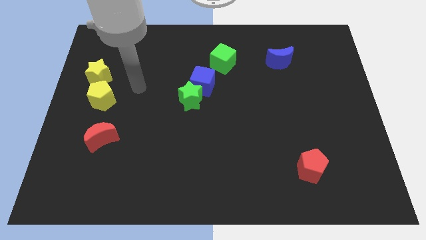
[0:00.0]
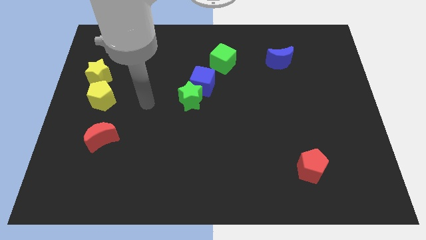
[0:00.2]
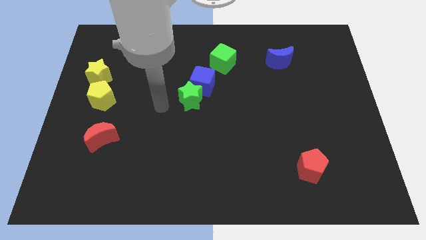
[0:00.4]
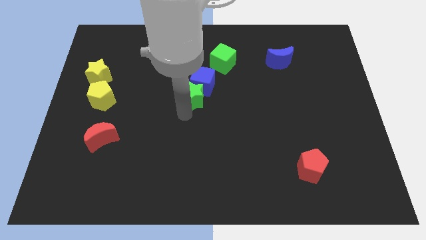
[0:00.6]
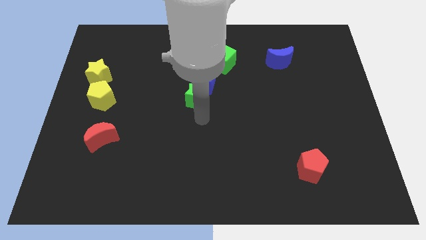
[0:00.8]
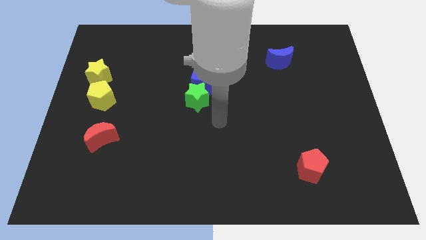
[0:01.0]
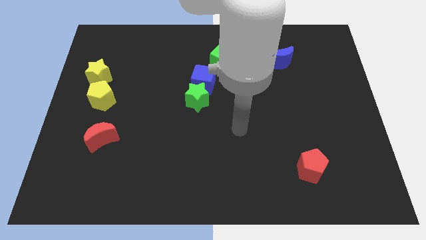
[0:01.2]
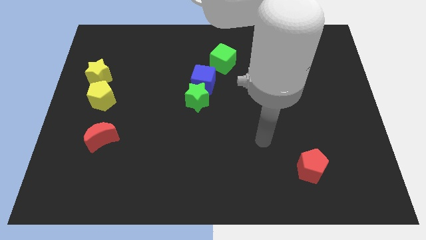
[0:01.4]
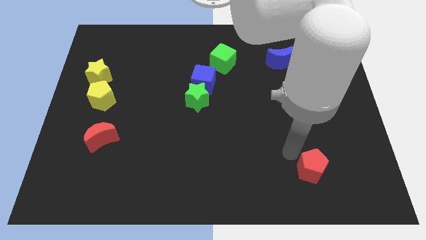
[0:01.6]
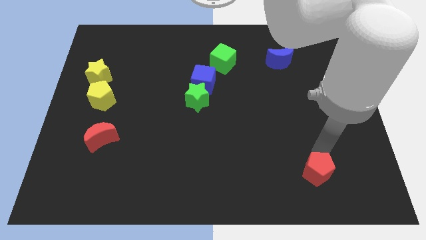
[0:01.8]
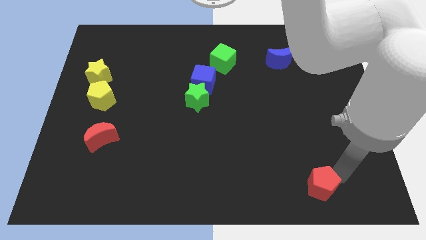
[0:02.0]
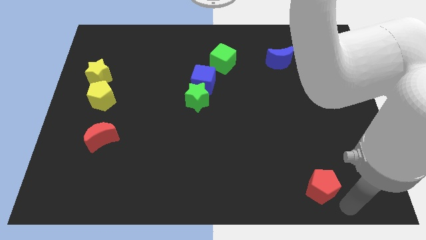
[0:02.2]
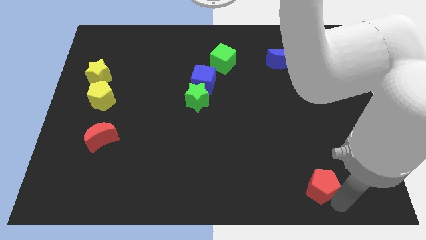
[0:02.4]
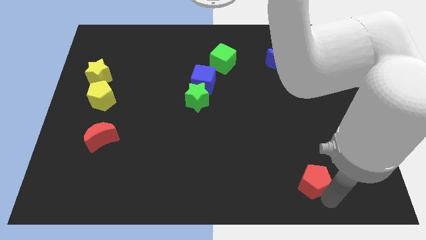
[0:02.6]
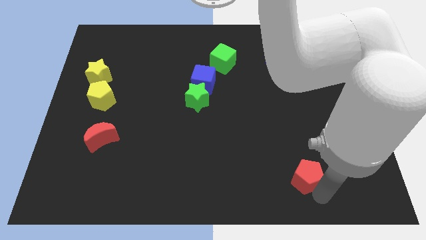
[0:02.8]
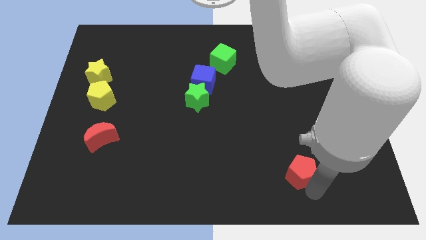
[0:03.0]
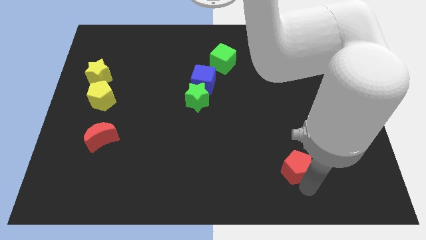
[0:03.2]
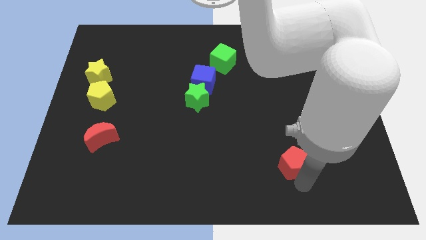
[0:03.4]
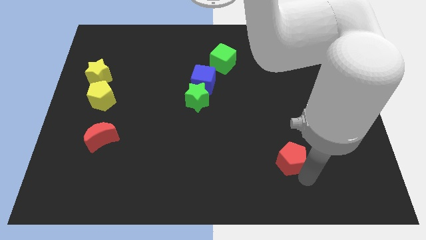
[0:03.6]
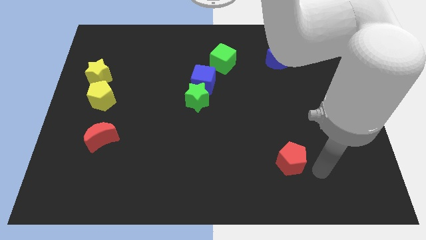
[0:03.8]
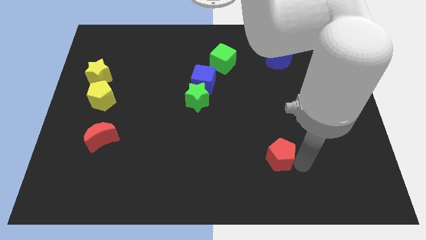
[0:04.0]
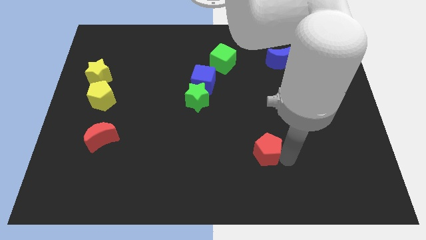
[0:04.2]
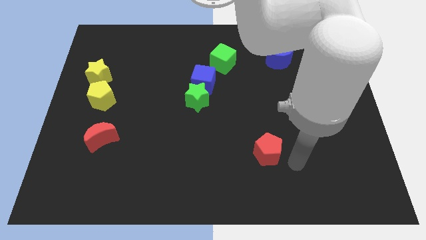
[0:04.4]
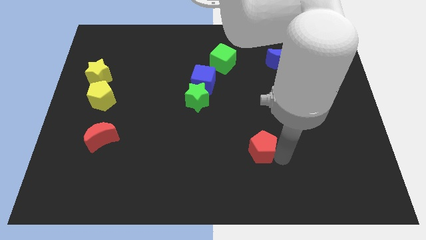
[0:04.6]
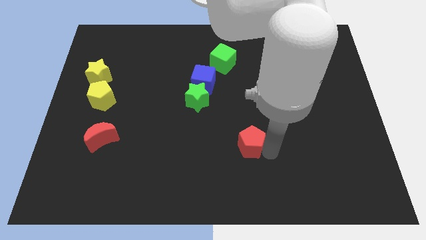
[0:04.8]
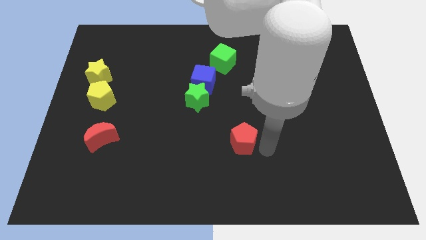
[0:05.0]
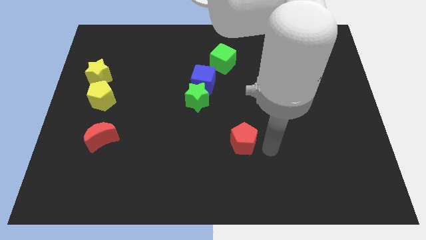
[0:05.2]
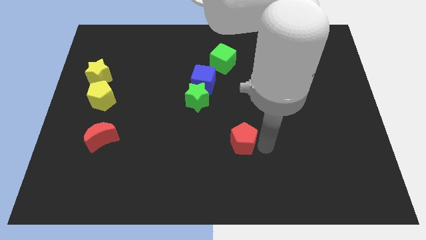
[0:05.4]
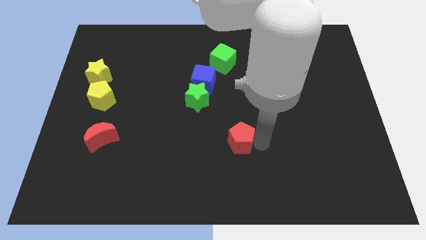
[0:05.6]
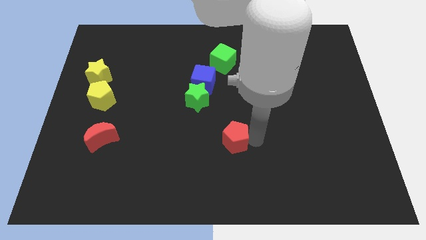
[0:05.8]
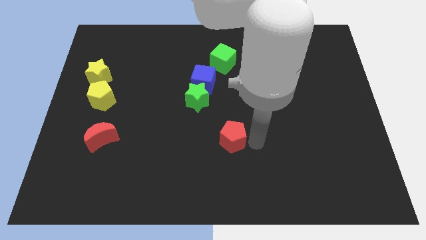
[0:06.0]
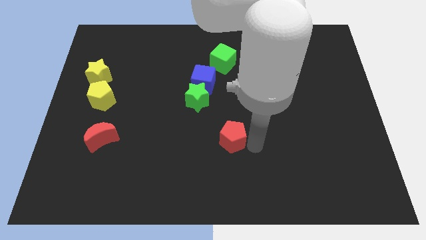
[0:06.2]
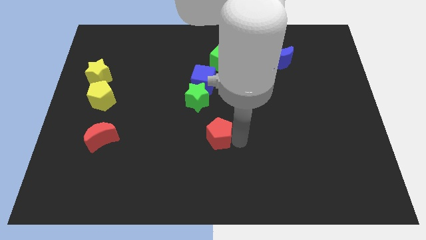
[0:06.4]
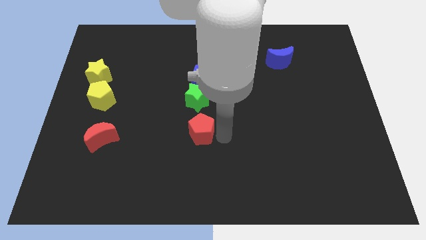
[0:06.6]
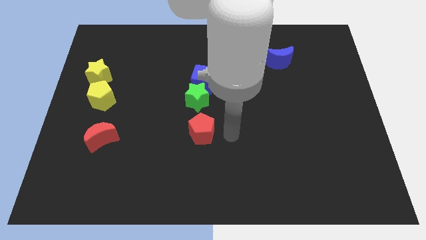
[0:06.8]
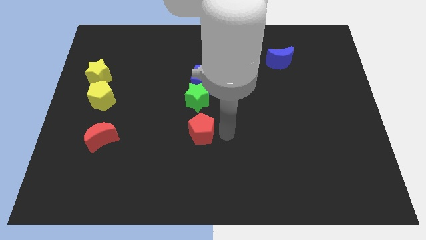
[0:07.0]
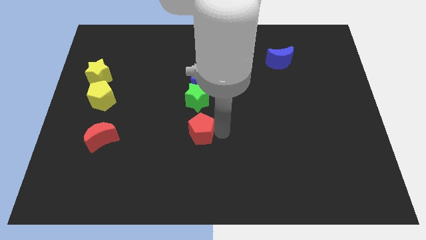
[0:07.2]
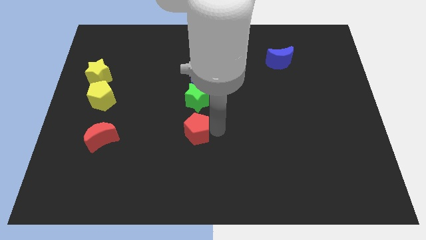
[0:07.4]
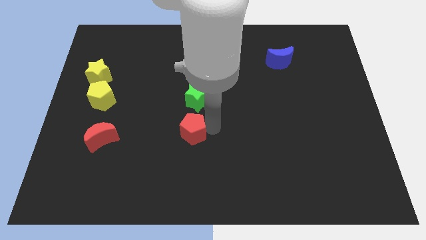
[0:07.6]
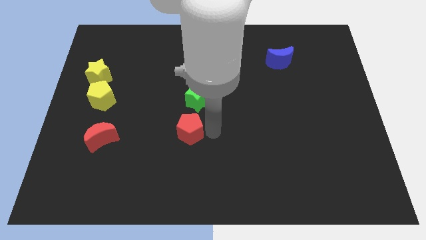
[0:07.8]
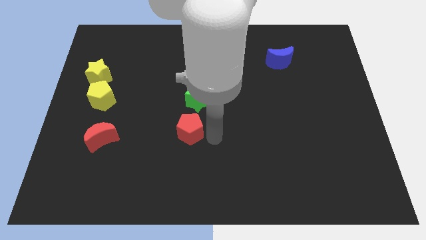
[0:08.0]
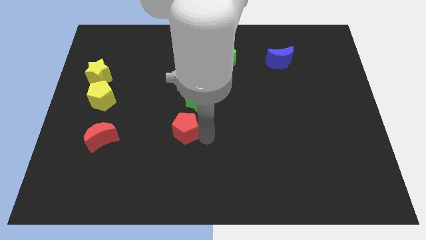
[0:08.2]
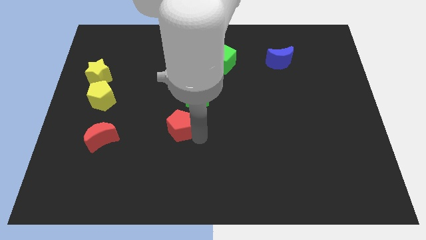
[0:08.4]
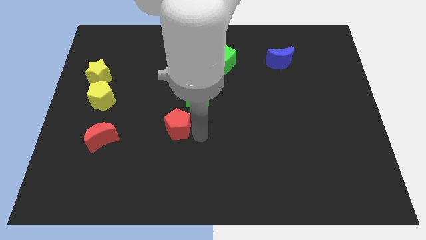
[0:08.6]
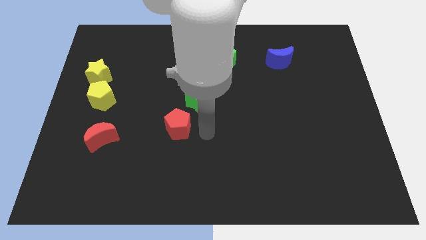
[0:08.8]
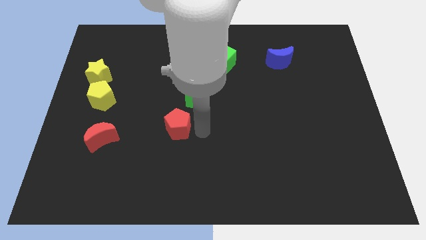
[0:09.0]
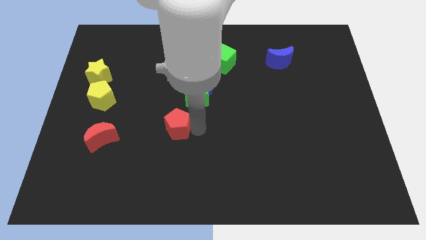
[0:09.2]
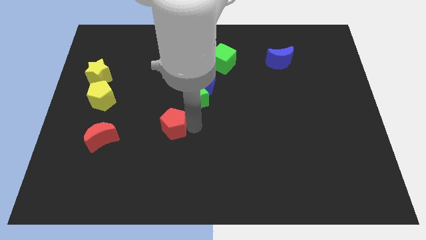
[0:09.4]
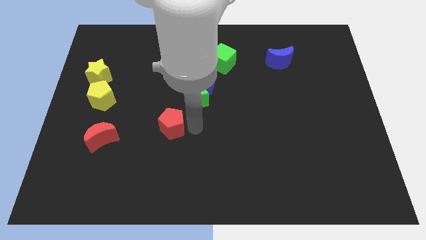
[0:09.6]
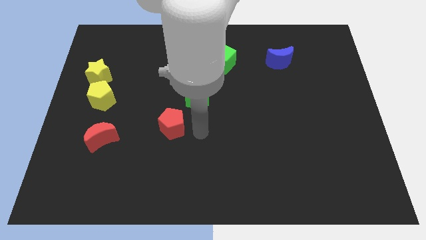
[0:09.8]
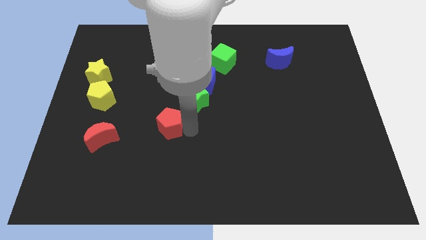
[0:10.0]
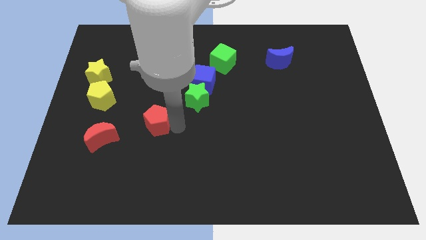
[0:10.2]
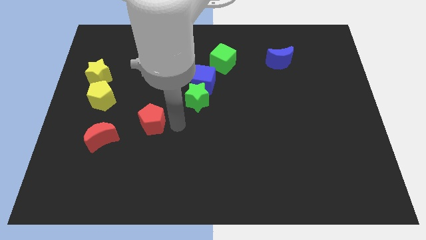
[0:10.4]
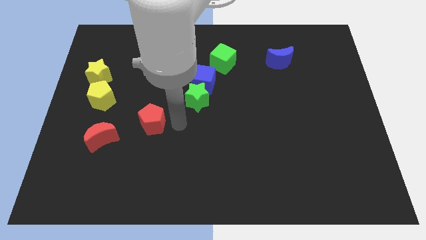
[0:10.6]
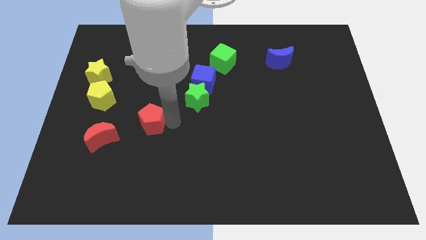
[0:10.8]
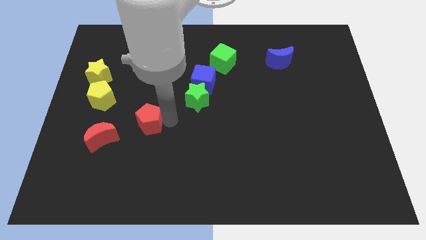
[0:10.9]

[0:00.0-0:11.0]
put the red pentagon diagonally up and to the right of the red moon

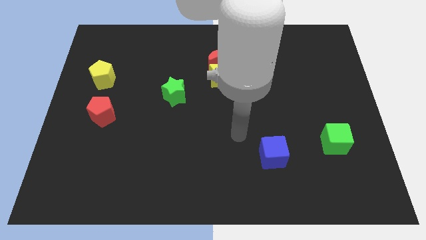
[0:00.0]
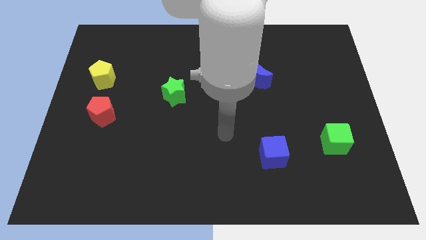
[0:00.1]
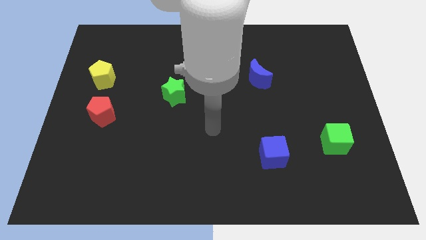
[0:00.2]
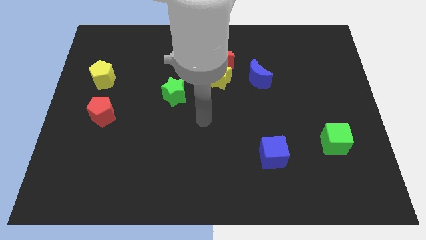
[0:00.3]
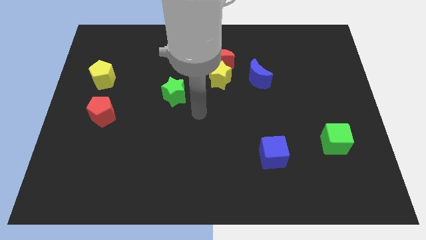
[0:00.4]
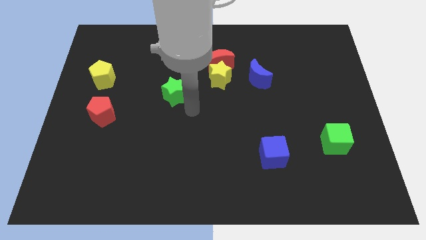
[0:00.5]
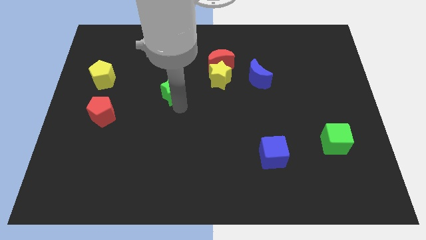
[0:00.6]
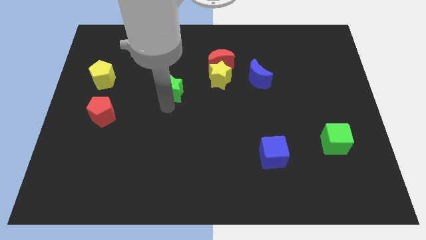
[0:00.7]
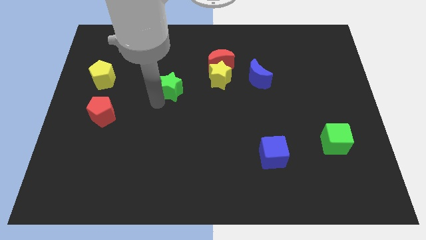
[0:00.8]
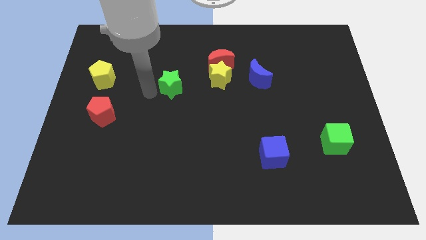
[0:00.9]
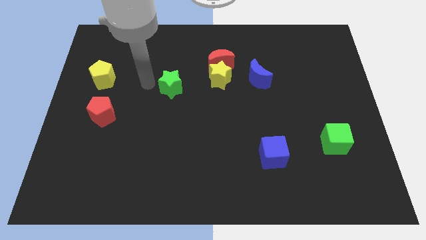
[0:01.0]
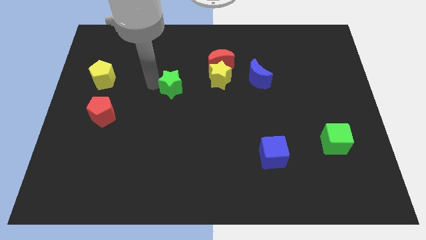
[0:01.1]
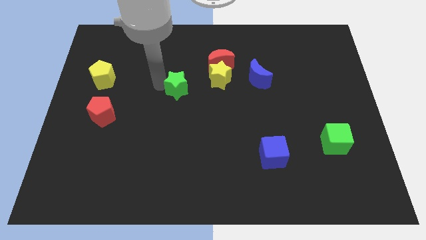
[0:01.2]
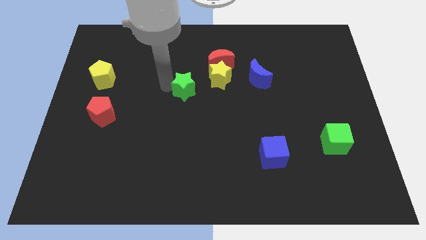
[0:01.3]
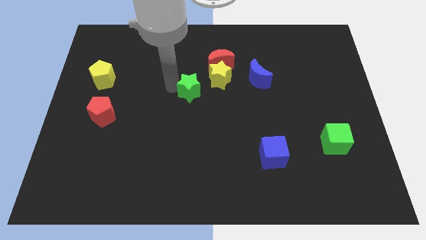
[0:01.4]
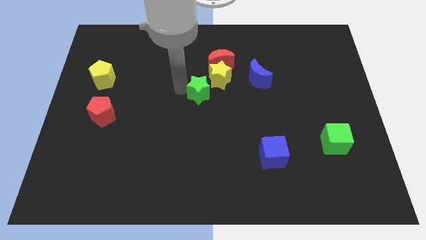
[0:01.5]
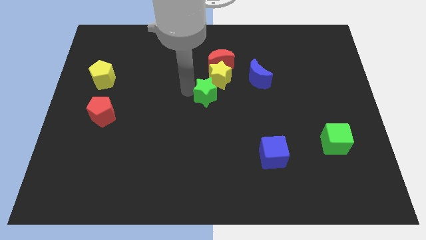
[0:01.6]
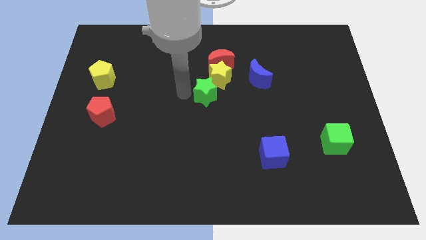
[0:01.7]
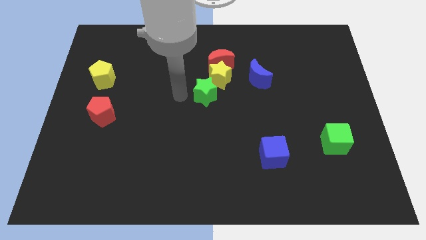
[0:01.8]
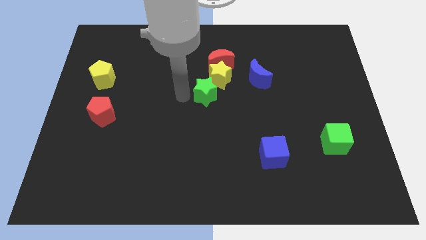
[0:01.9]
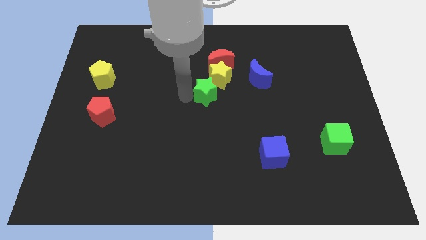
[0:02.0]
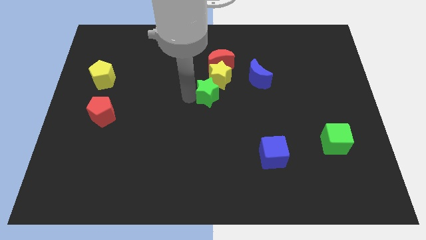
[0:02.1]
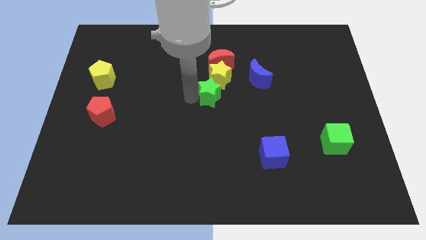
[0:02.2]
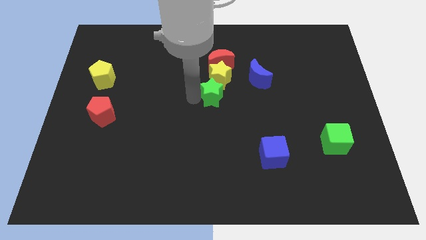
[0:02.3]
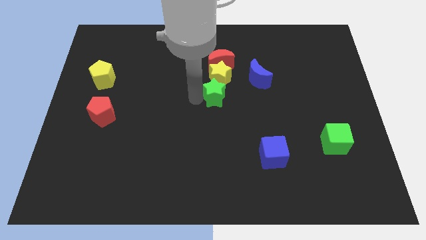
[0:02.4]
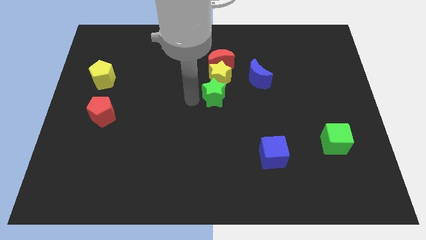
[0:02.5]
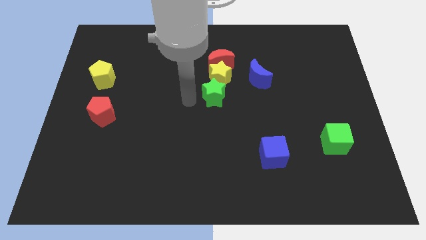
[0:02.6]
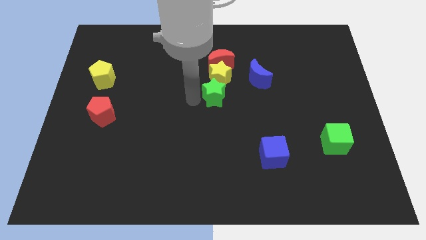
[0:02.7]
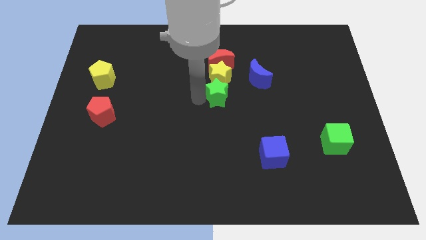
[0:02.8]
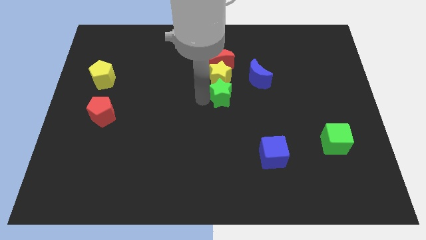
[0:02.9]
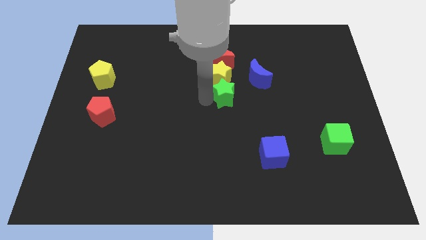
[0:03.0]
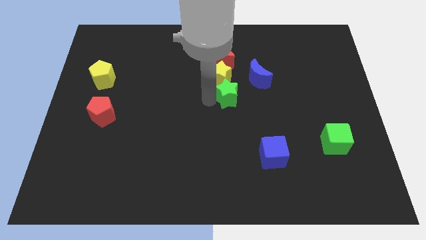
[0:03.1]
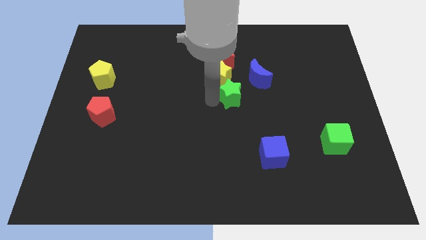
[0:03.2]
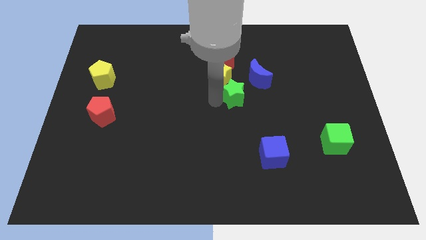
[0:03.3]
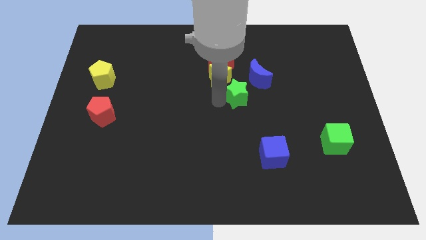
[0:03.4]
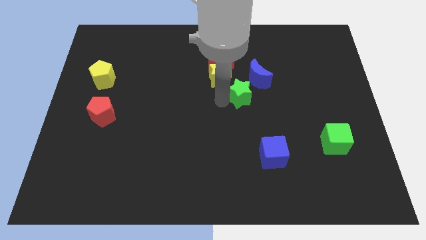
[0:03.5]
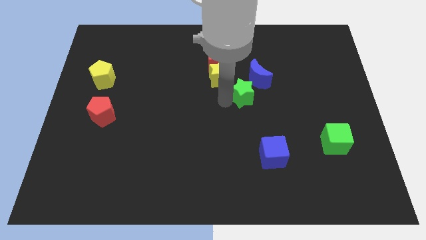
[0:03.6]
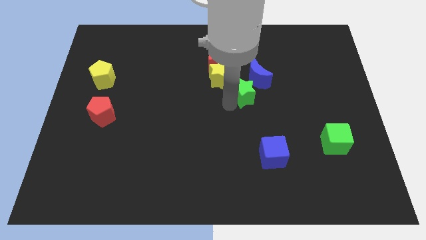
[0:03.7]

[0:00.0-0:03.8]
put the green star diagonally down and to the right of the red moon
